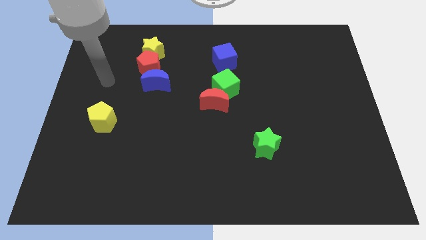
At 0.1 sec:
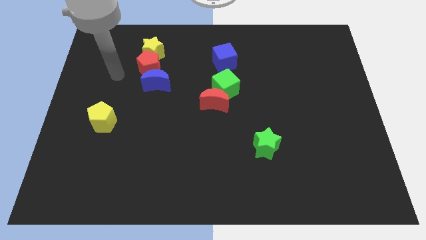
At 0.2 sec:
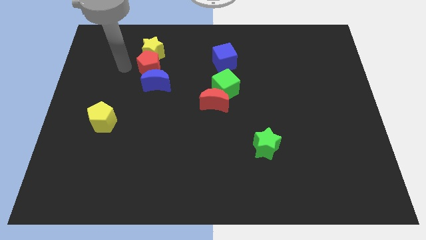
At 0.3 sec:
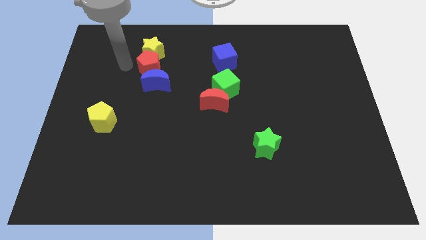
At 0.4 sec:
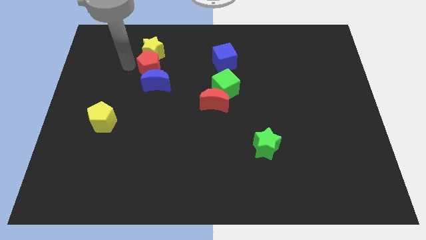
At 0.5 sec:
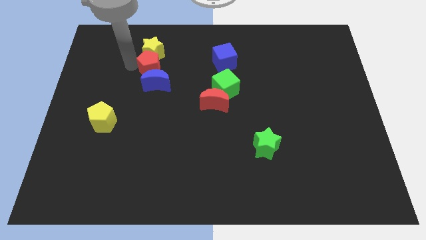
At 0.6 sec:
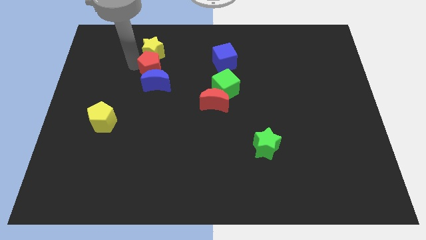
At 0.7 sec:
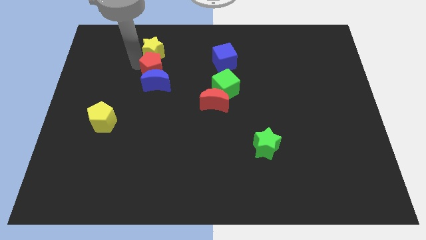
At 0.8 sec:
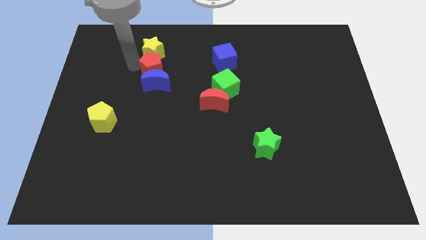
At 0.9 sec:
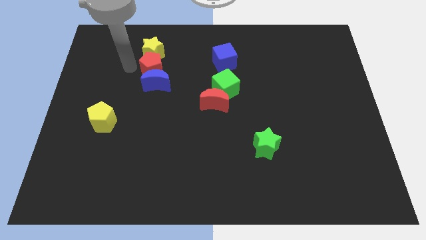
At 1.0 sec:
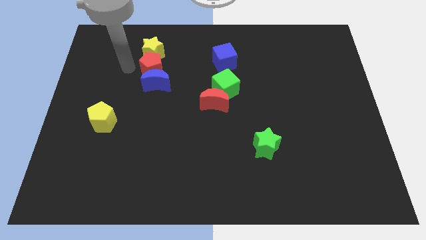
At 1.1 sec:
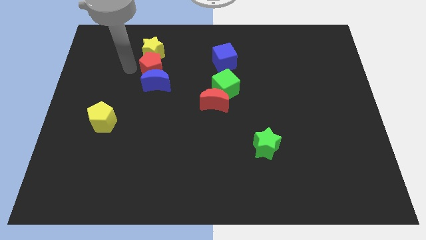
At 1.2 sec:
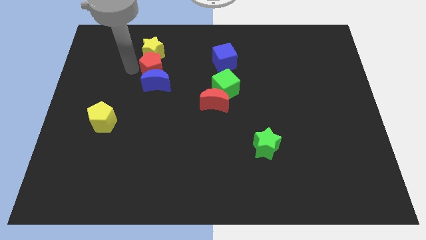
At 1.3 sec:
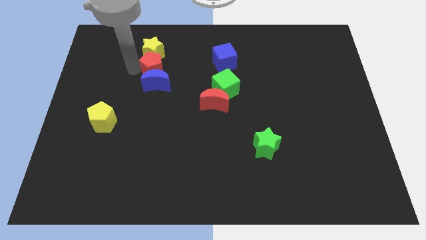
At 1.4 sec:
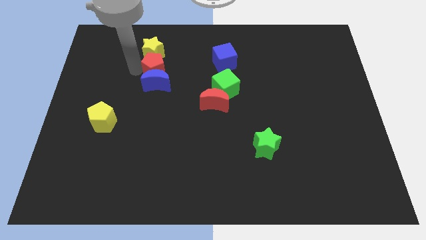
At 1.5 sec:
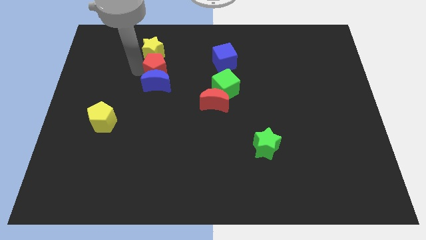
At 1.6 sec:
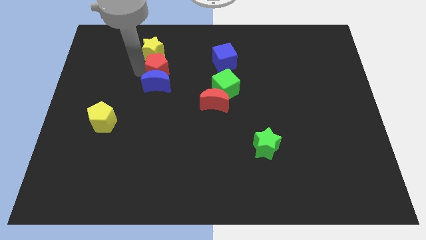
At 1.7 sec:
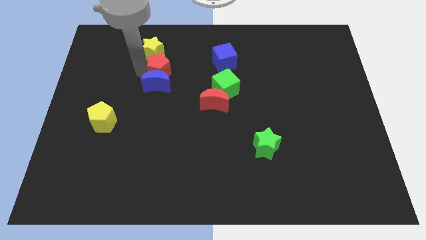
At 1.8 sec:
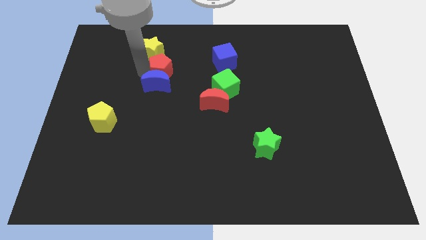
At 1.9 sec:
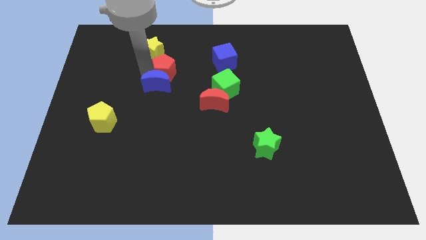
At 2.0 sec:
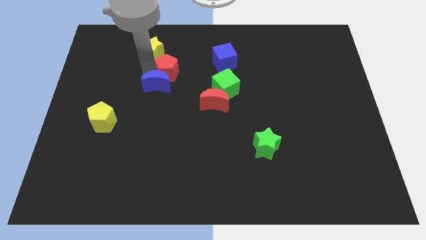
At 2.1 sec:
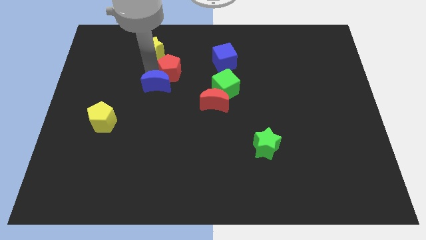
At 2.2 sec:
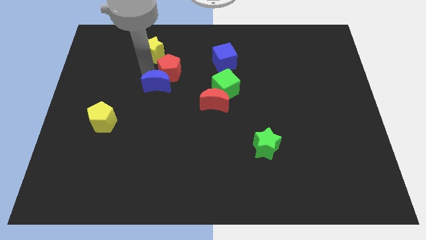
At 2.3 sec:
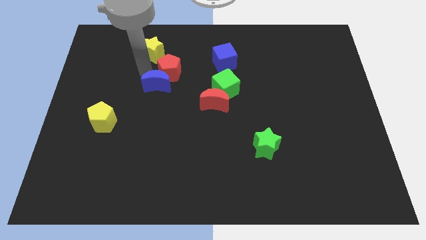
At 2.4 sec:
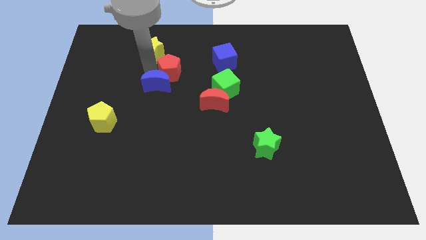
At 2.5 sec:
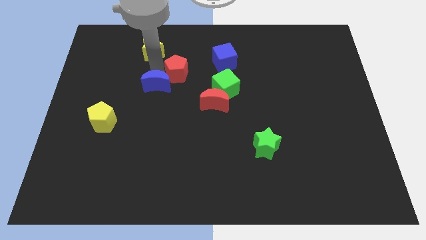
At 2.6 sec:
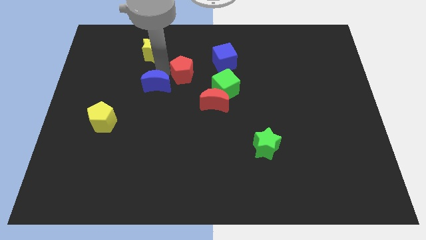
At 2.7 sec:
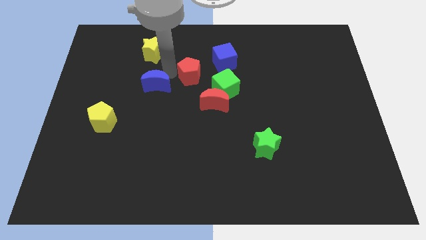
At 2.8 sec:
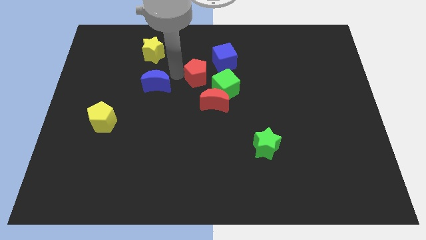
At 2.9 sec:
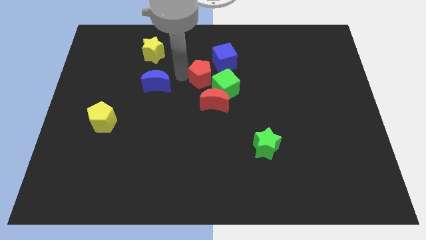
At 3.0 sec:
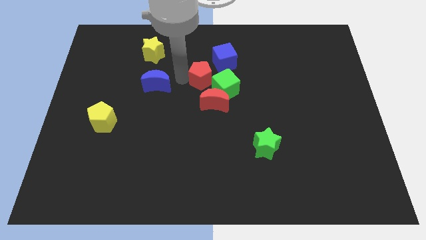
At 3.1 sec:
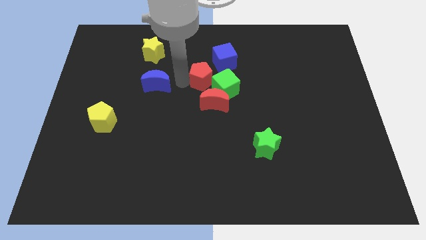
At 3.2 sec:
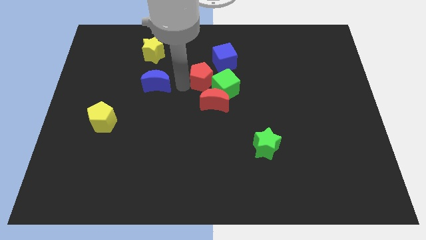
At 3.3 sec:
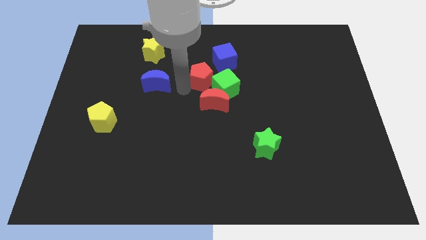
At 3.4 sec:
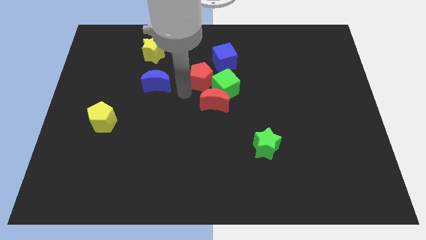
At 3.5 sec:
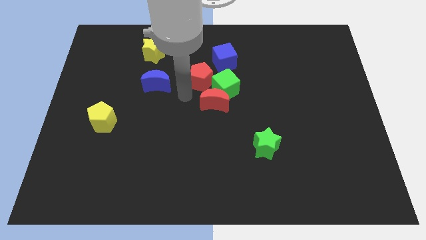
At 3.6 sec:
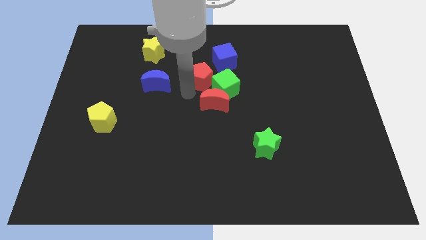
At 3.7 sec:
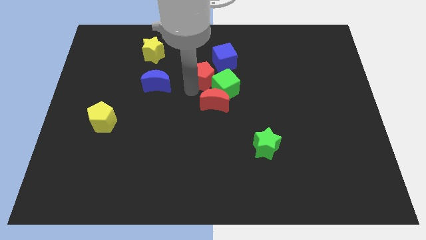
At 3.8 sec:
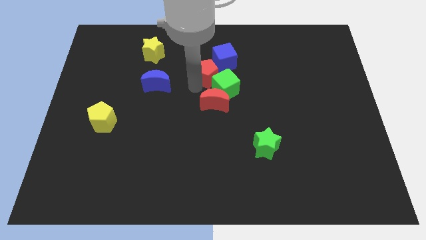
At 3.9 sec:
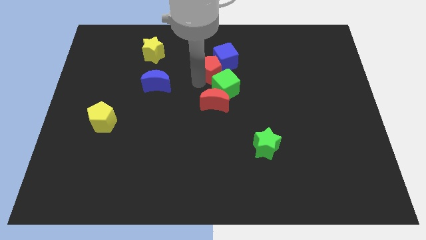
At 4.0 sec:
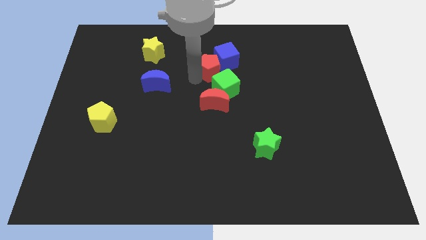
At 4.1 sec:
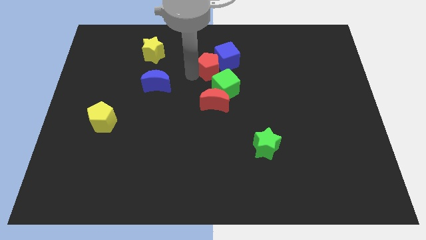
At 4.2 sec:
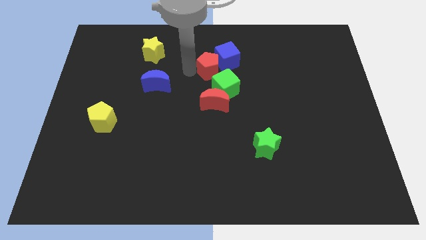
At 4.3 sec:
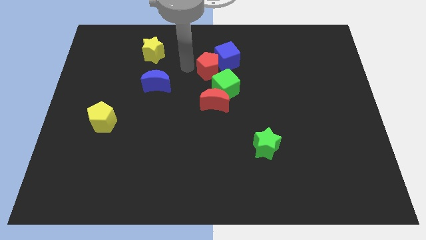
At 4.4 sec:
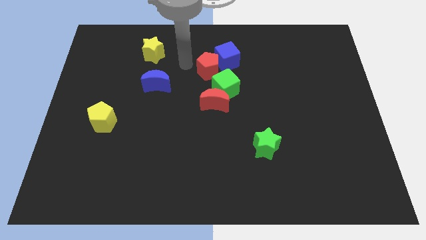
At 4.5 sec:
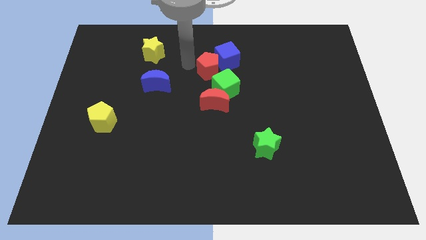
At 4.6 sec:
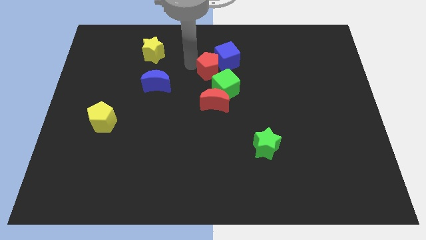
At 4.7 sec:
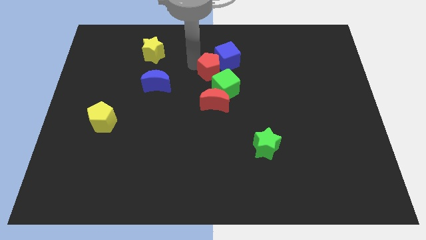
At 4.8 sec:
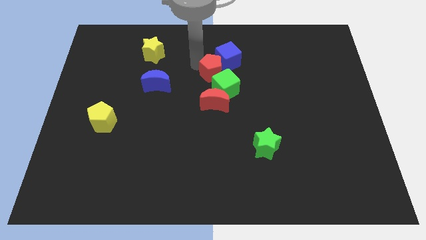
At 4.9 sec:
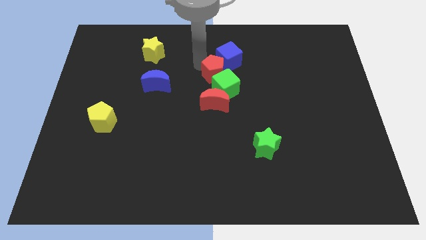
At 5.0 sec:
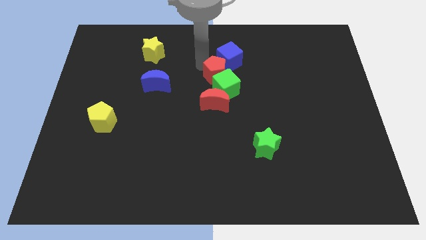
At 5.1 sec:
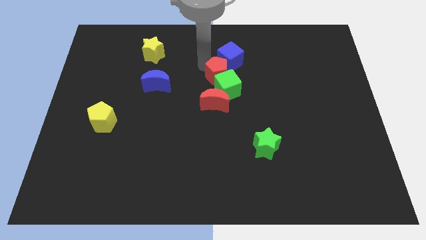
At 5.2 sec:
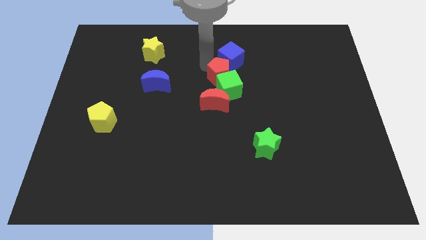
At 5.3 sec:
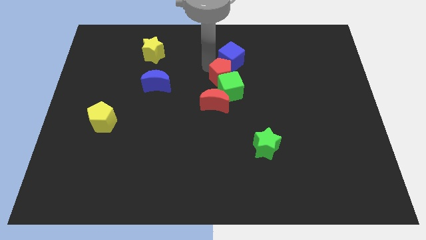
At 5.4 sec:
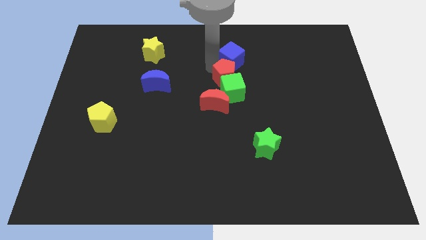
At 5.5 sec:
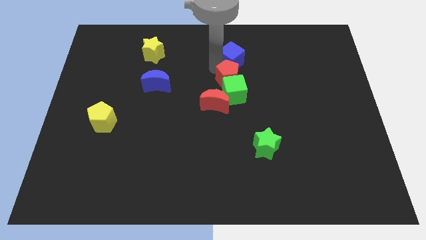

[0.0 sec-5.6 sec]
move the red pentagon to the right

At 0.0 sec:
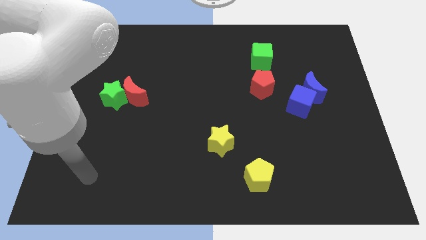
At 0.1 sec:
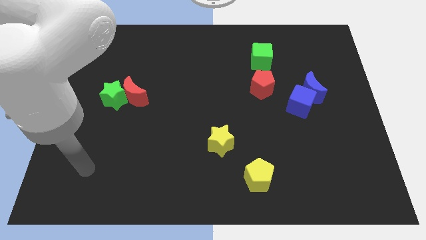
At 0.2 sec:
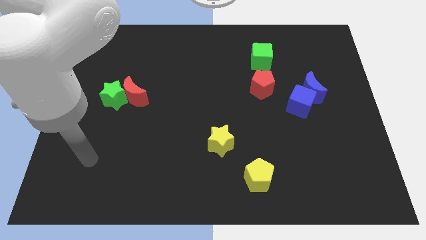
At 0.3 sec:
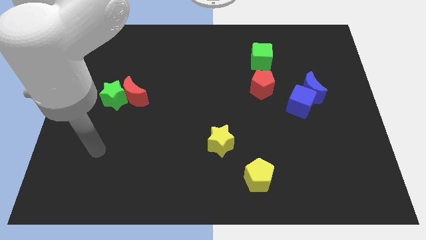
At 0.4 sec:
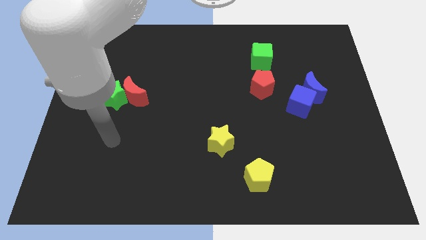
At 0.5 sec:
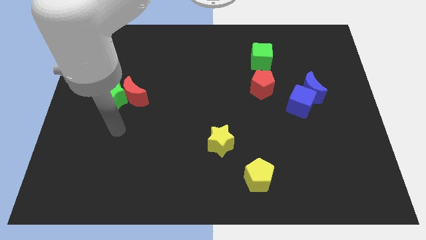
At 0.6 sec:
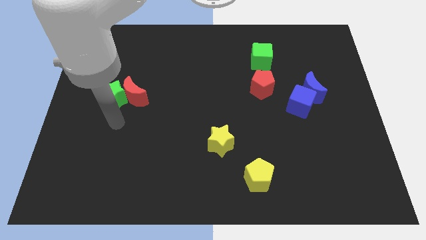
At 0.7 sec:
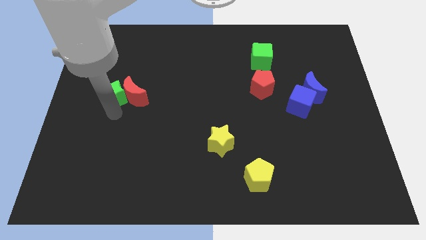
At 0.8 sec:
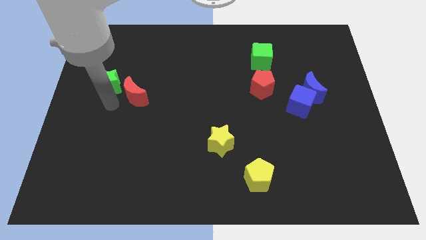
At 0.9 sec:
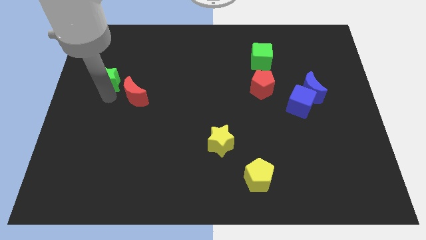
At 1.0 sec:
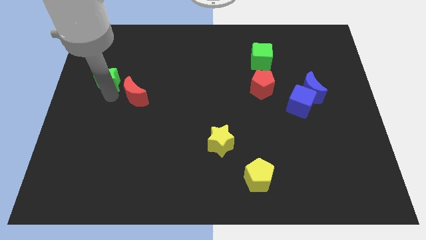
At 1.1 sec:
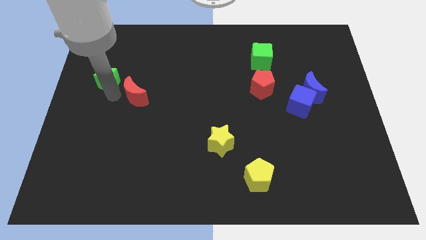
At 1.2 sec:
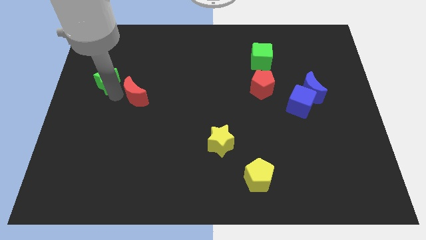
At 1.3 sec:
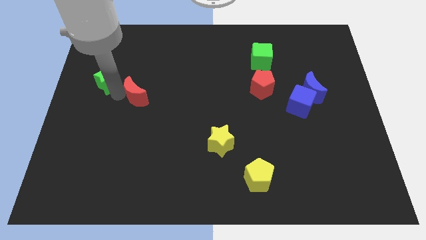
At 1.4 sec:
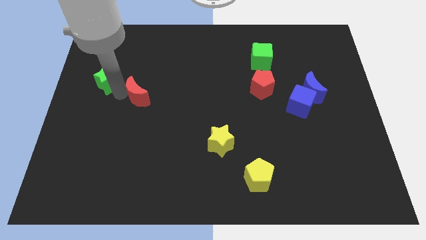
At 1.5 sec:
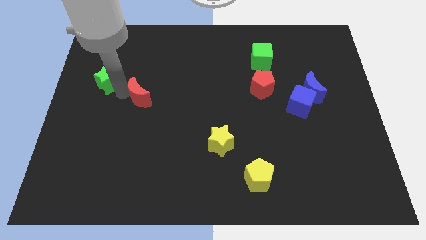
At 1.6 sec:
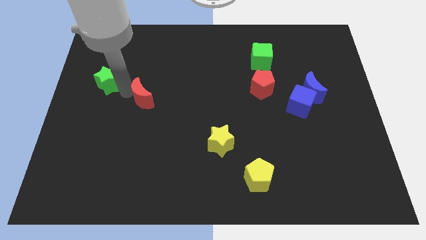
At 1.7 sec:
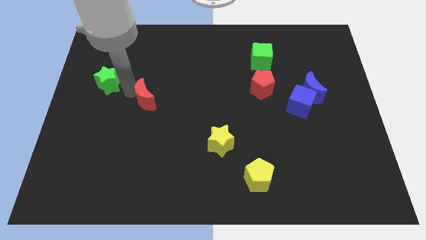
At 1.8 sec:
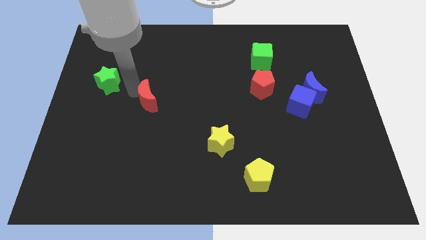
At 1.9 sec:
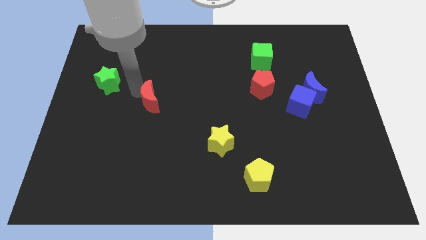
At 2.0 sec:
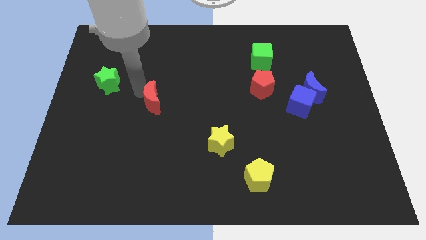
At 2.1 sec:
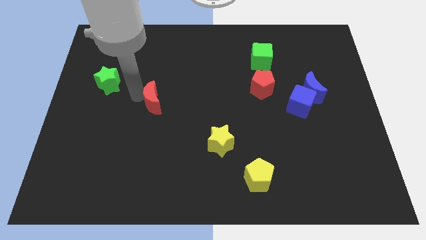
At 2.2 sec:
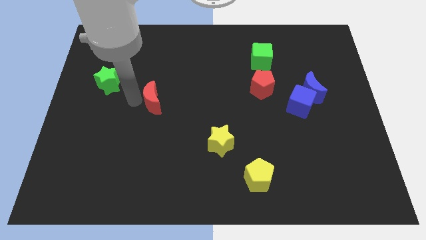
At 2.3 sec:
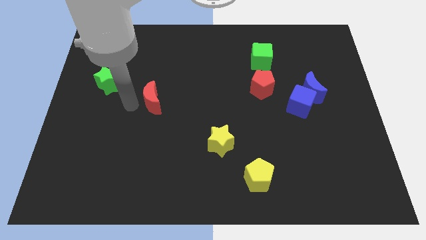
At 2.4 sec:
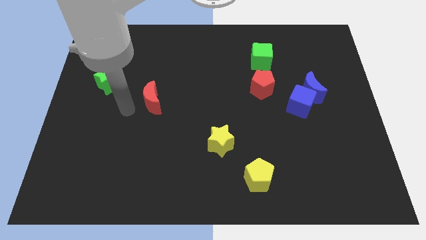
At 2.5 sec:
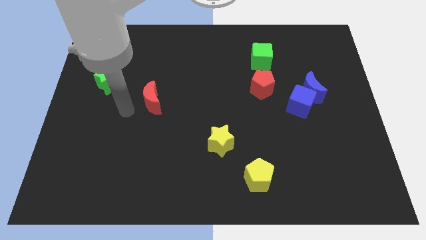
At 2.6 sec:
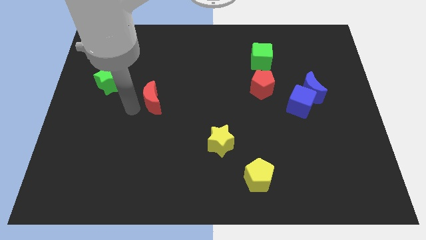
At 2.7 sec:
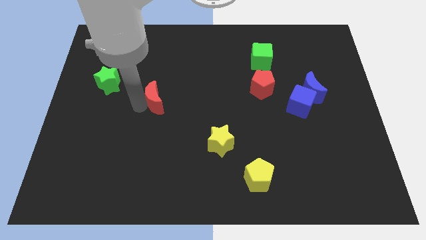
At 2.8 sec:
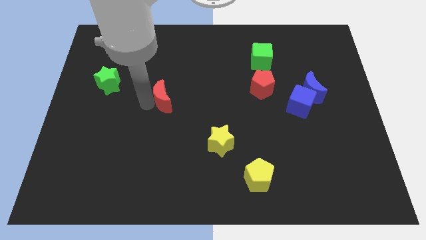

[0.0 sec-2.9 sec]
move the red moon a bit right

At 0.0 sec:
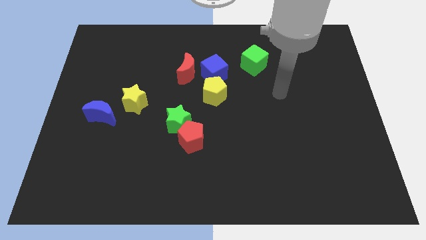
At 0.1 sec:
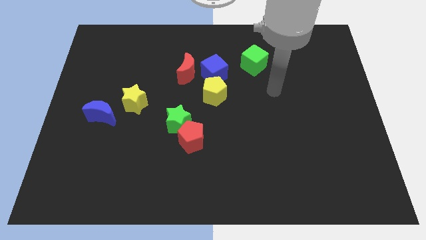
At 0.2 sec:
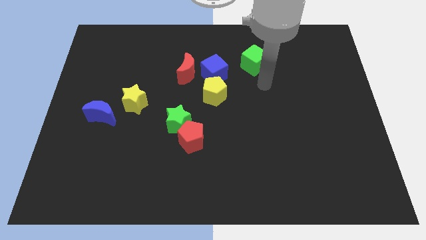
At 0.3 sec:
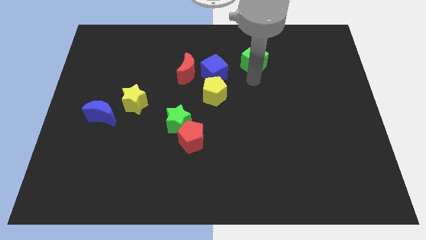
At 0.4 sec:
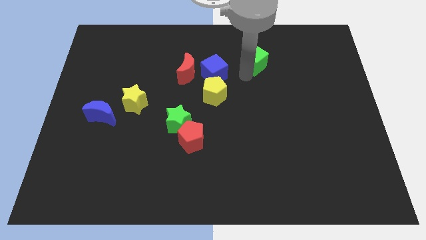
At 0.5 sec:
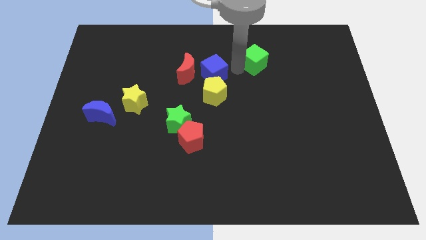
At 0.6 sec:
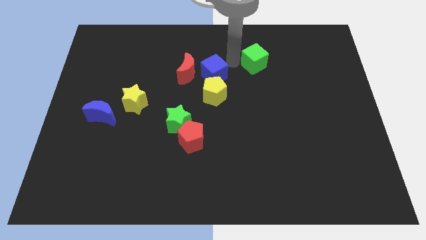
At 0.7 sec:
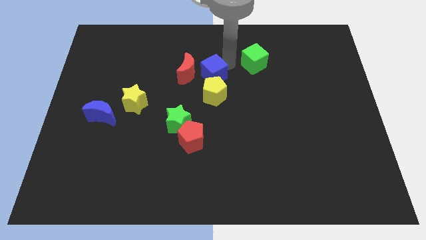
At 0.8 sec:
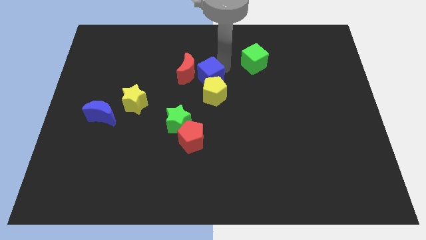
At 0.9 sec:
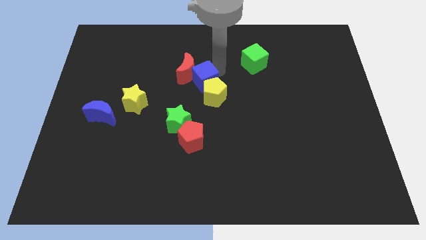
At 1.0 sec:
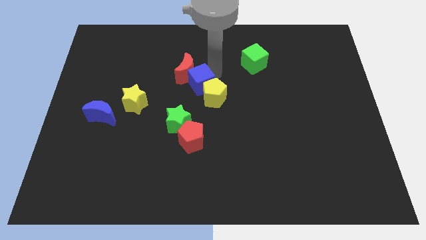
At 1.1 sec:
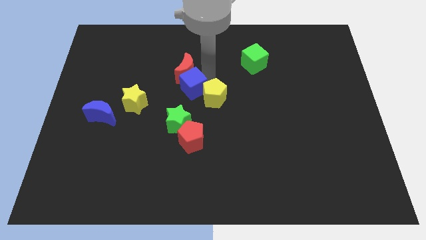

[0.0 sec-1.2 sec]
push the blue cube downwards and then left slightly
